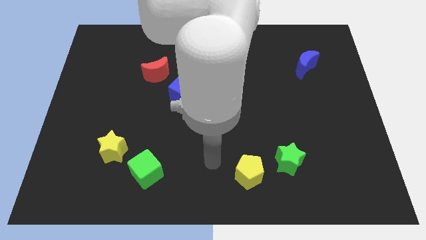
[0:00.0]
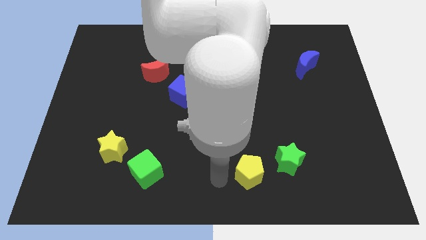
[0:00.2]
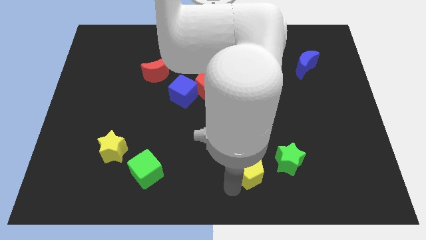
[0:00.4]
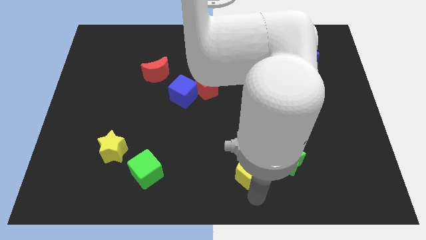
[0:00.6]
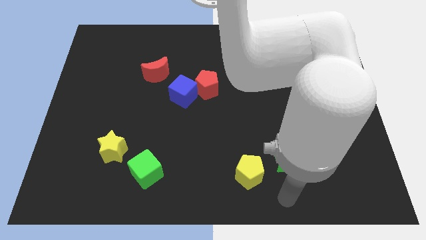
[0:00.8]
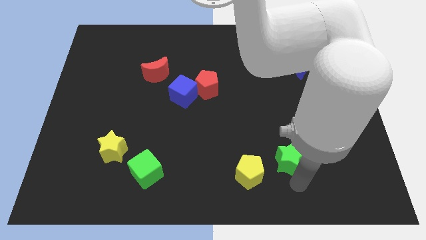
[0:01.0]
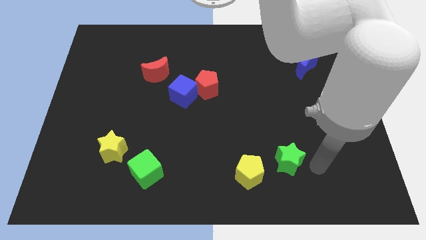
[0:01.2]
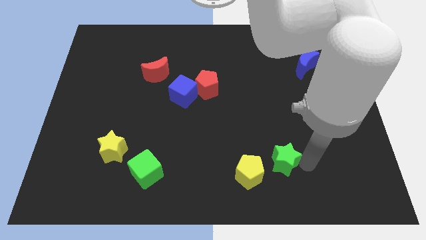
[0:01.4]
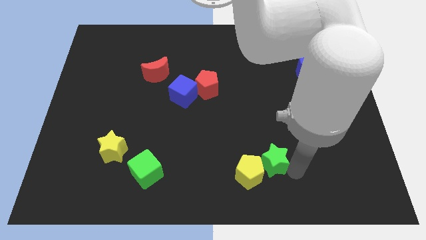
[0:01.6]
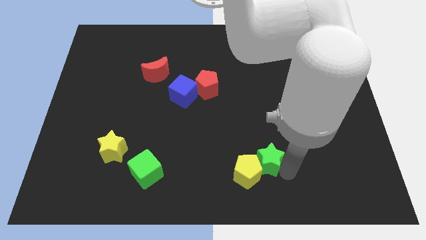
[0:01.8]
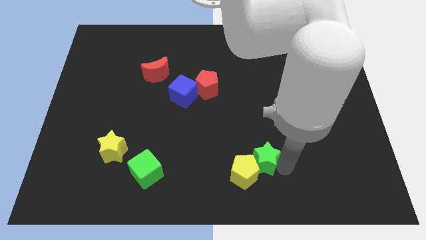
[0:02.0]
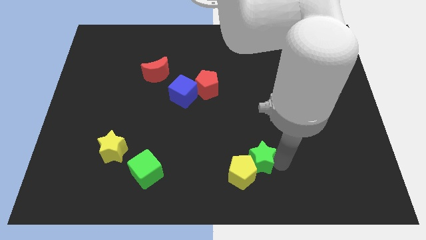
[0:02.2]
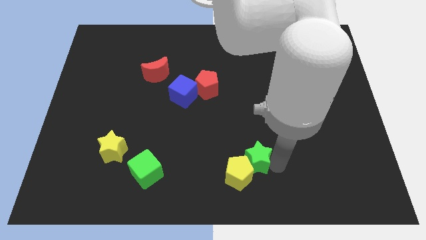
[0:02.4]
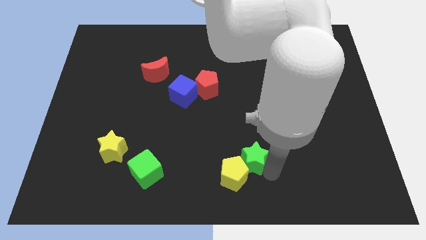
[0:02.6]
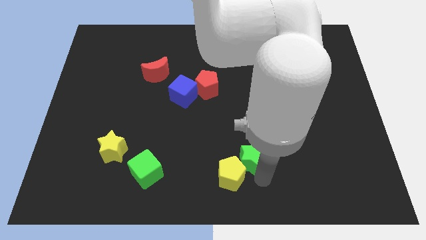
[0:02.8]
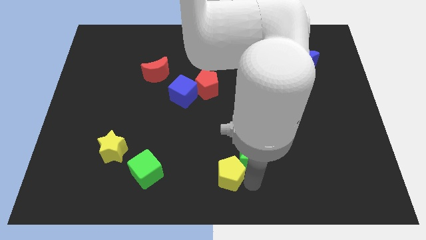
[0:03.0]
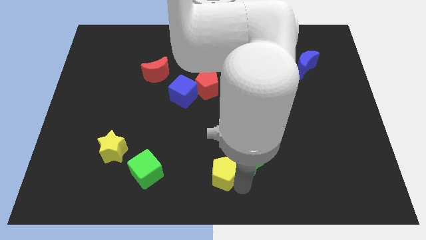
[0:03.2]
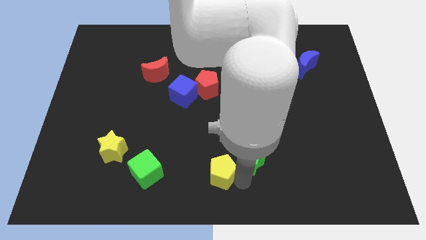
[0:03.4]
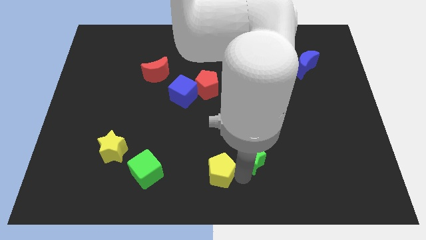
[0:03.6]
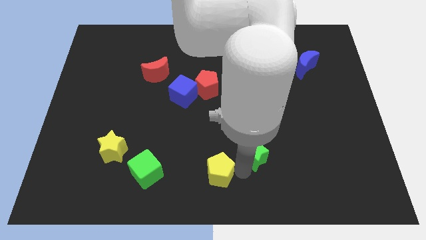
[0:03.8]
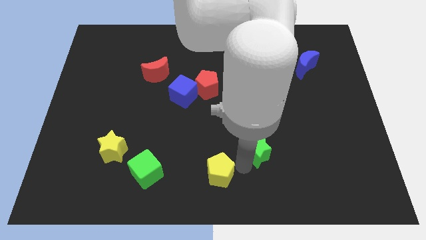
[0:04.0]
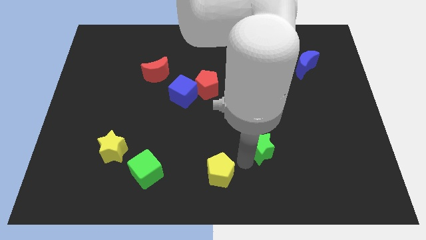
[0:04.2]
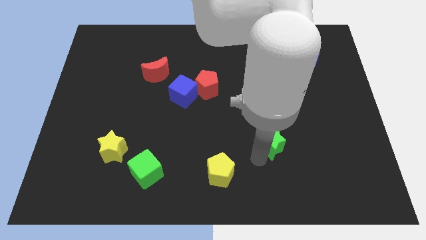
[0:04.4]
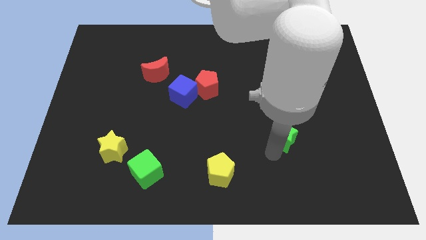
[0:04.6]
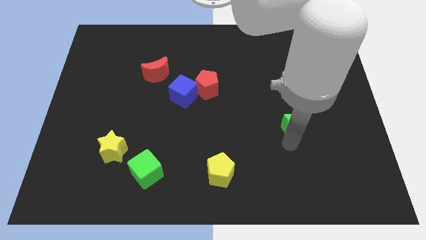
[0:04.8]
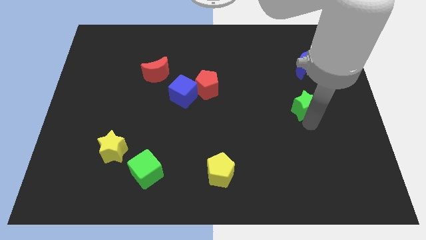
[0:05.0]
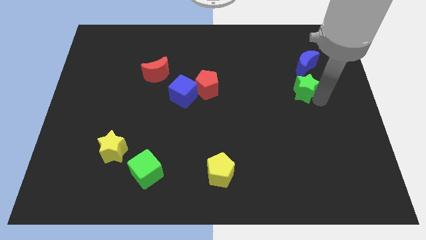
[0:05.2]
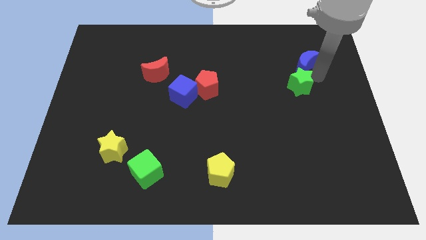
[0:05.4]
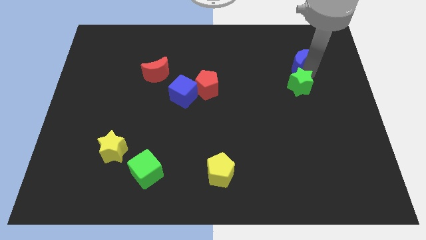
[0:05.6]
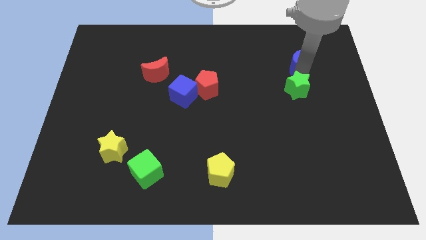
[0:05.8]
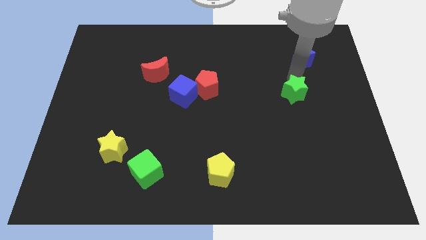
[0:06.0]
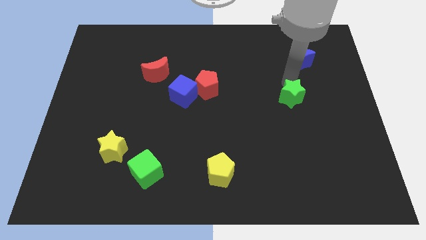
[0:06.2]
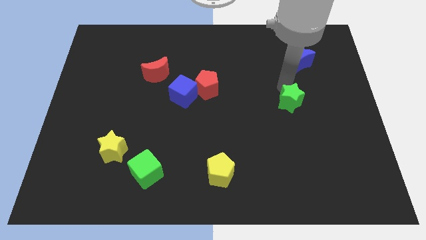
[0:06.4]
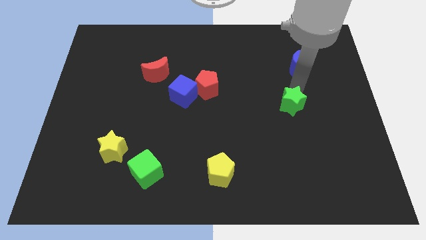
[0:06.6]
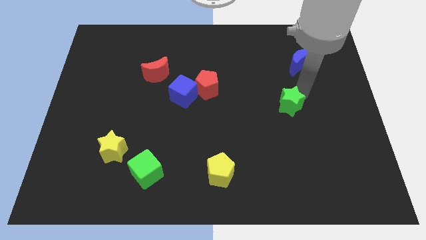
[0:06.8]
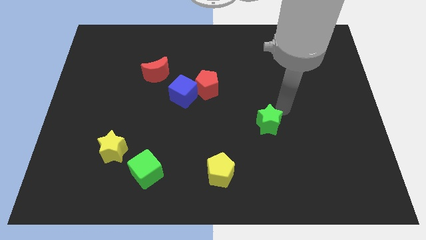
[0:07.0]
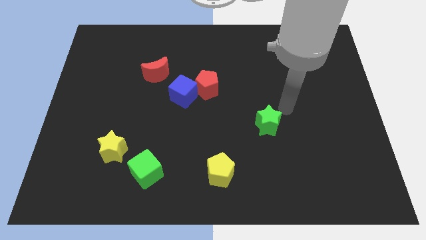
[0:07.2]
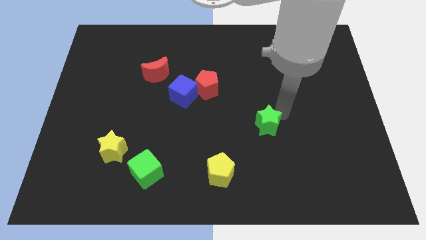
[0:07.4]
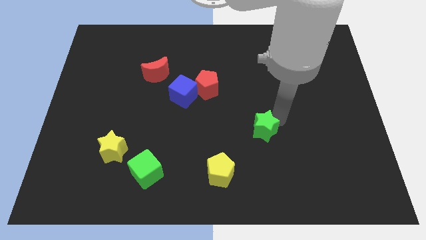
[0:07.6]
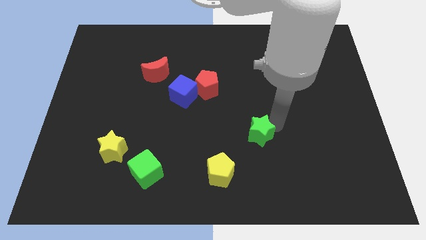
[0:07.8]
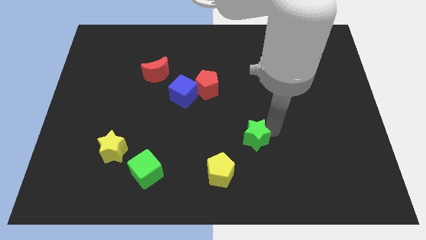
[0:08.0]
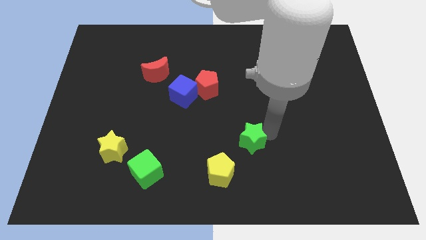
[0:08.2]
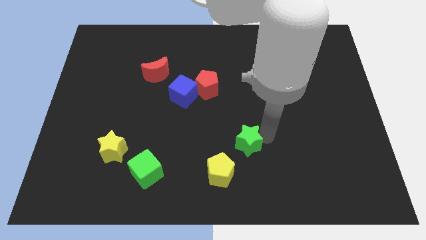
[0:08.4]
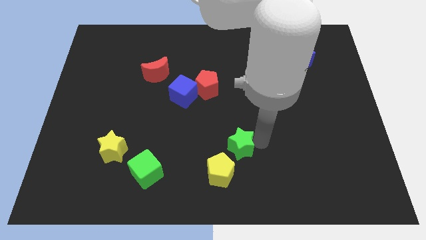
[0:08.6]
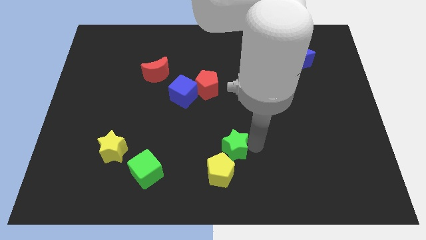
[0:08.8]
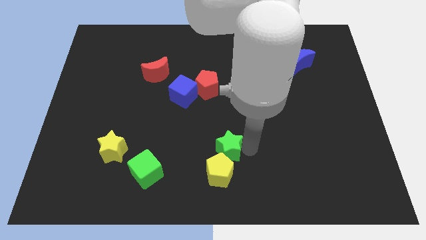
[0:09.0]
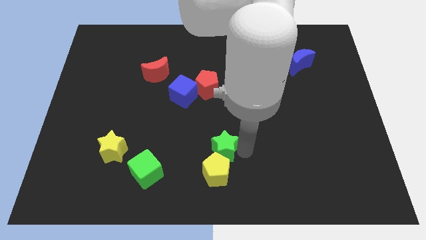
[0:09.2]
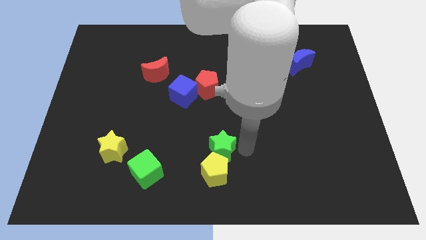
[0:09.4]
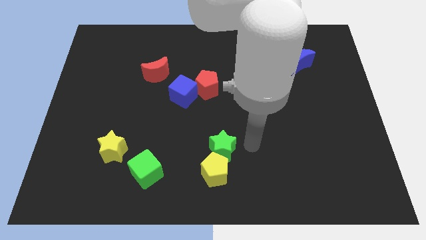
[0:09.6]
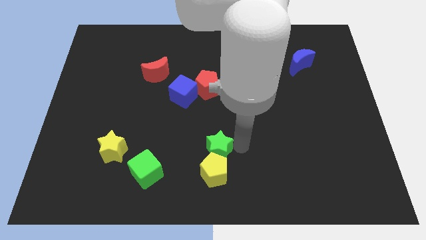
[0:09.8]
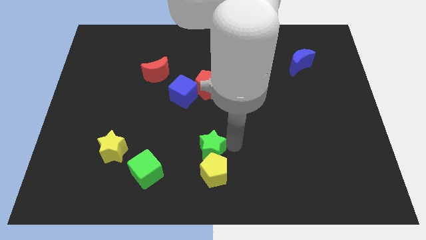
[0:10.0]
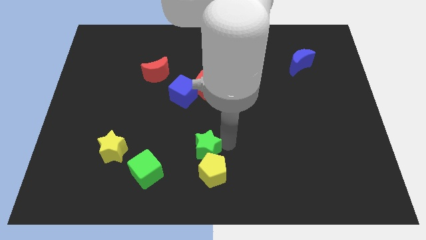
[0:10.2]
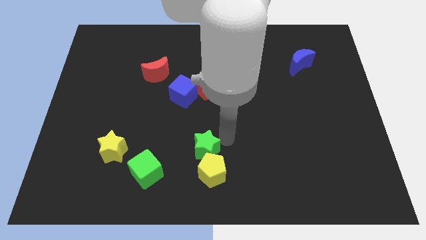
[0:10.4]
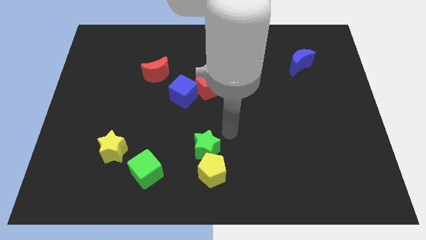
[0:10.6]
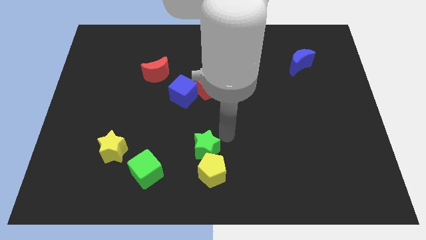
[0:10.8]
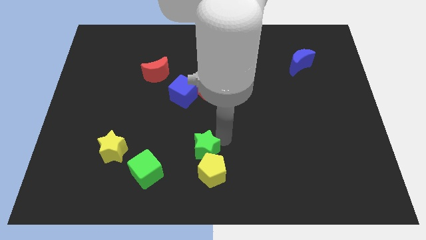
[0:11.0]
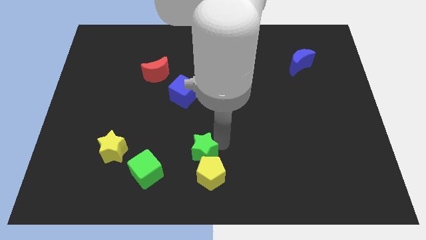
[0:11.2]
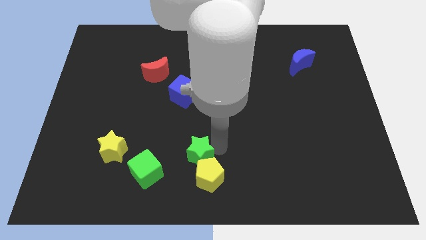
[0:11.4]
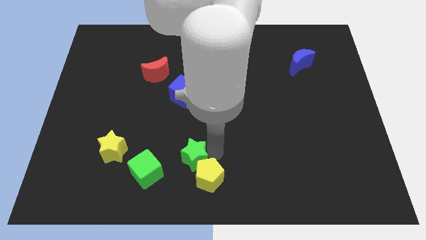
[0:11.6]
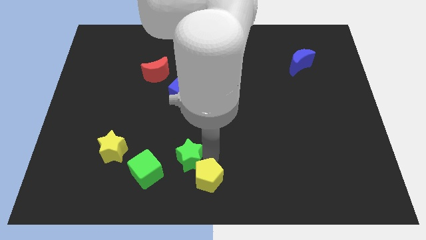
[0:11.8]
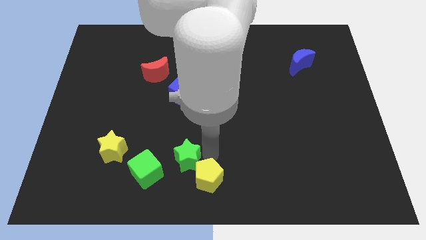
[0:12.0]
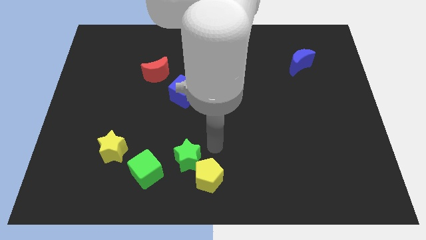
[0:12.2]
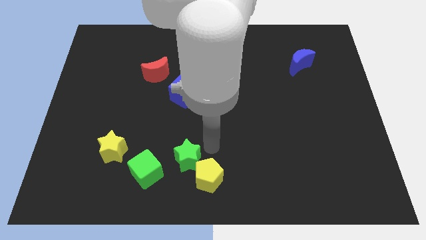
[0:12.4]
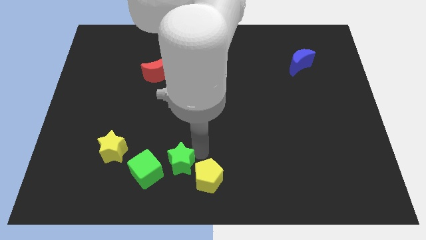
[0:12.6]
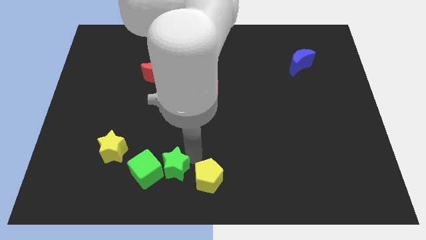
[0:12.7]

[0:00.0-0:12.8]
slide the green star close to the green cube
